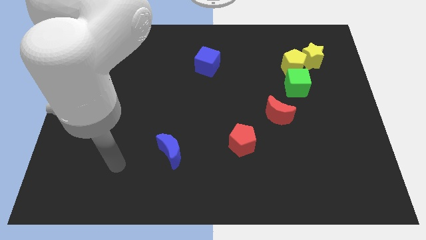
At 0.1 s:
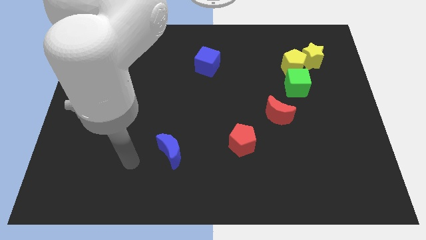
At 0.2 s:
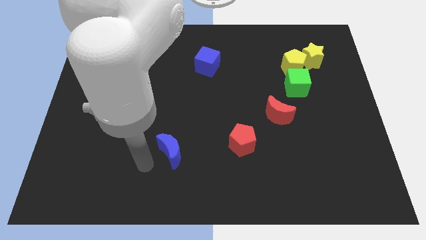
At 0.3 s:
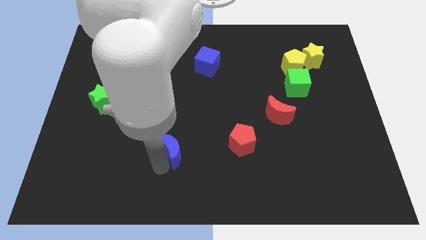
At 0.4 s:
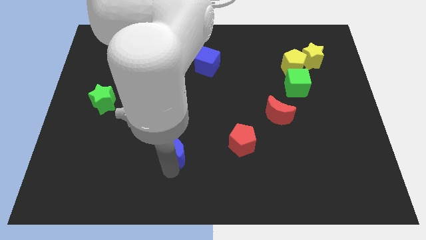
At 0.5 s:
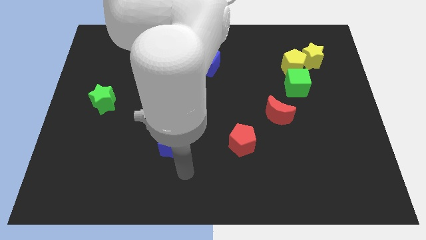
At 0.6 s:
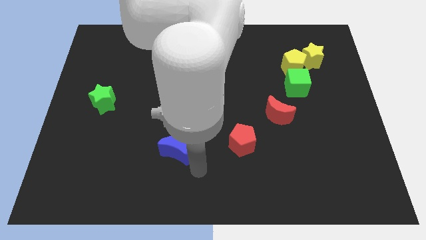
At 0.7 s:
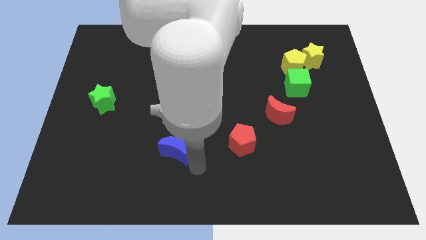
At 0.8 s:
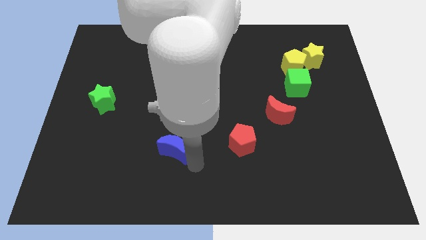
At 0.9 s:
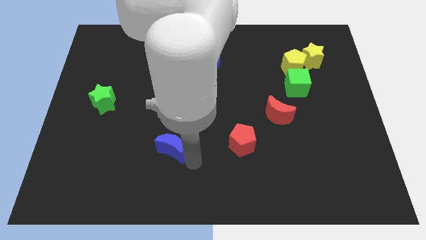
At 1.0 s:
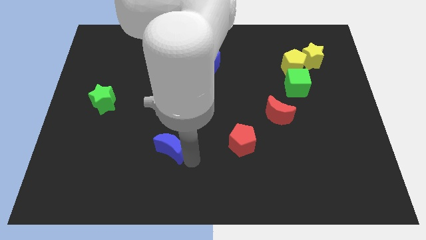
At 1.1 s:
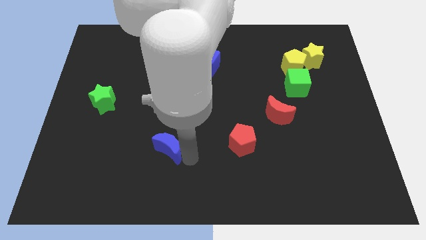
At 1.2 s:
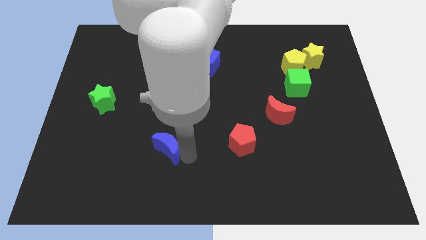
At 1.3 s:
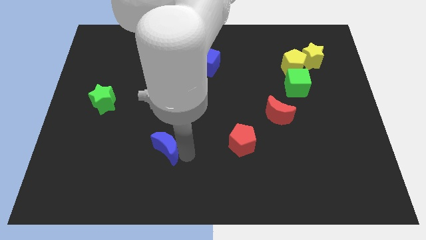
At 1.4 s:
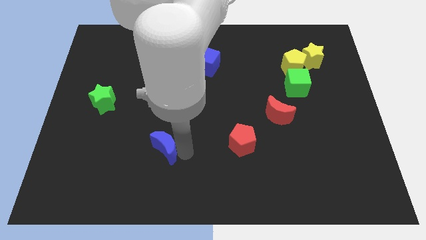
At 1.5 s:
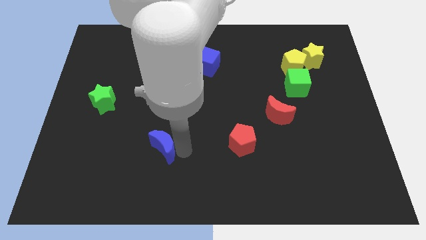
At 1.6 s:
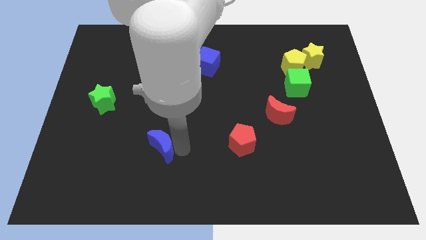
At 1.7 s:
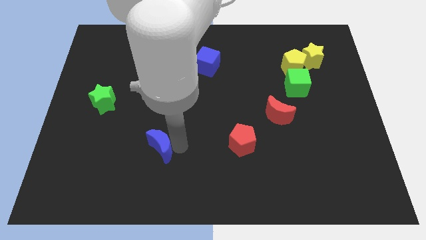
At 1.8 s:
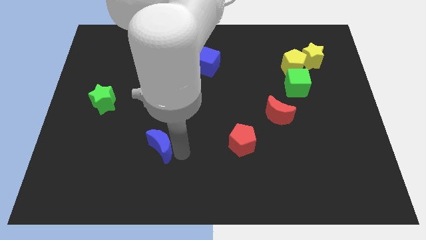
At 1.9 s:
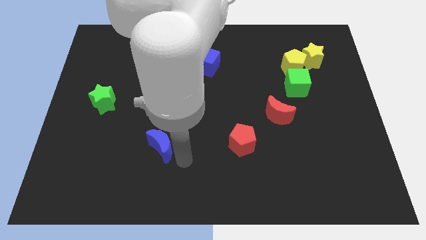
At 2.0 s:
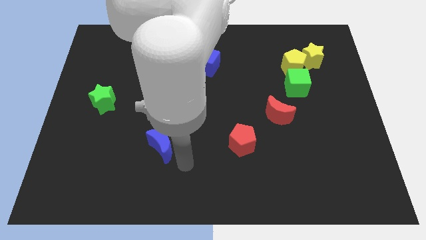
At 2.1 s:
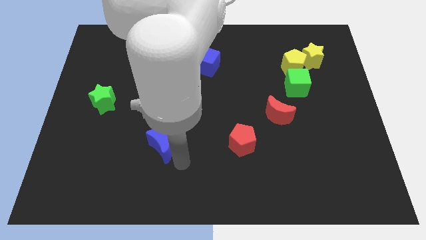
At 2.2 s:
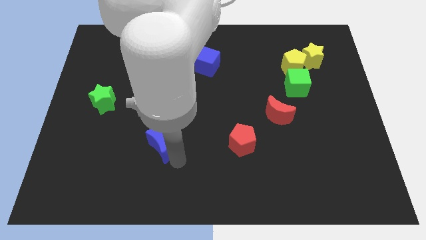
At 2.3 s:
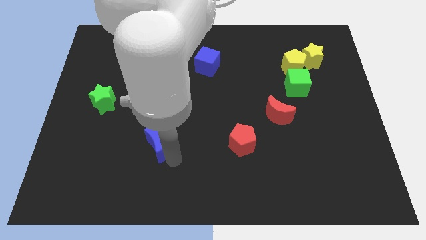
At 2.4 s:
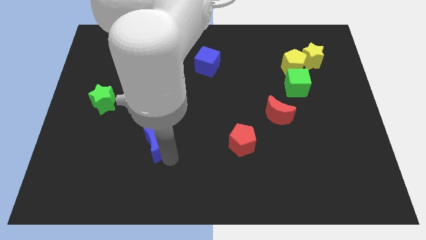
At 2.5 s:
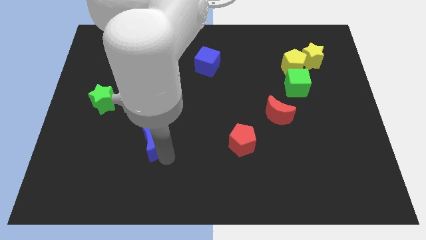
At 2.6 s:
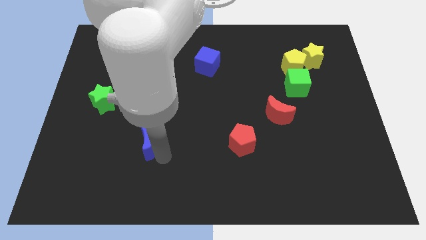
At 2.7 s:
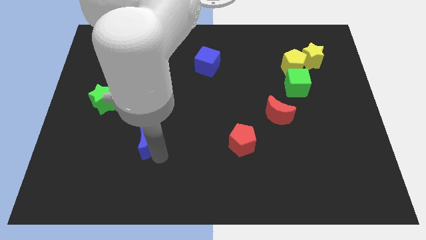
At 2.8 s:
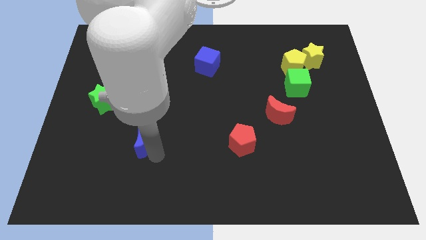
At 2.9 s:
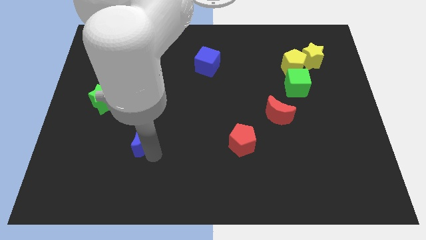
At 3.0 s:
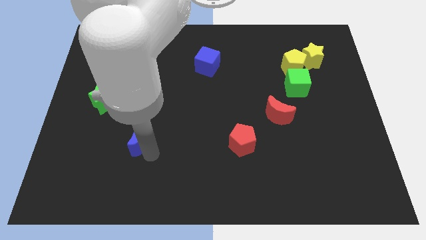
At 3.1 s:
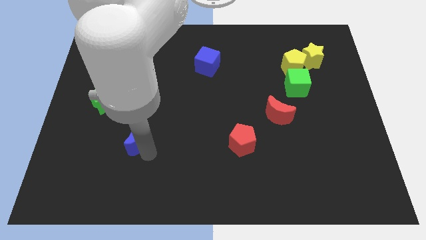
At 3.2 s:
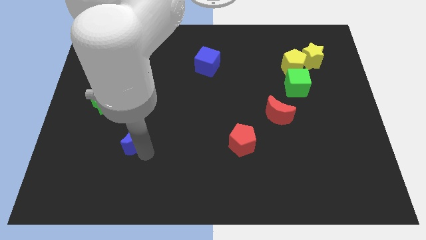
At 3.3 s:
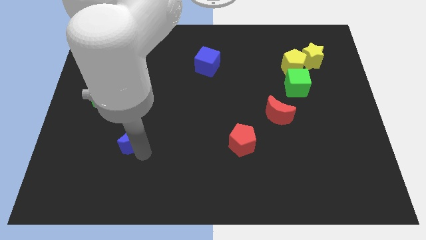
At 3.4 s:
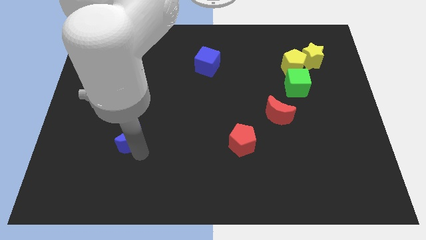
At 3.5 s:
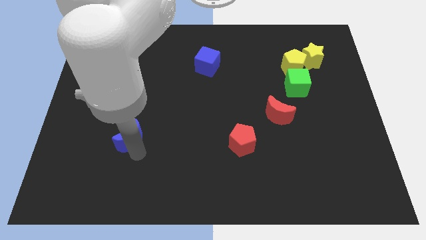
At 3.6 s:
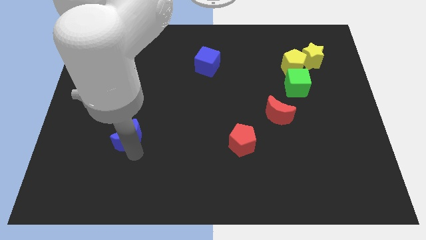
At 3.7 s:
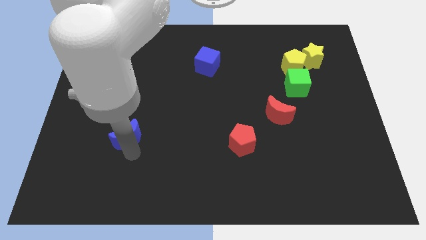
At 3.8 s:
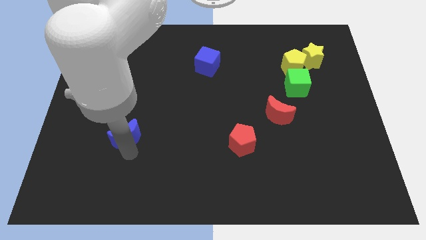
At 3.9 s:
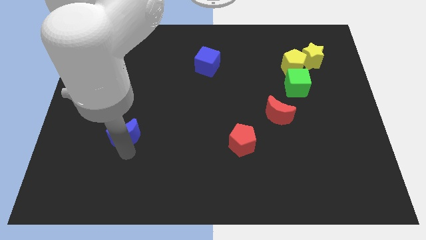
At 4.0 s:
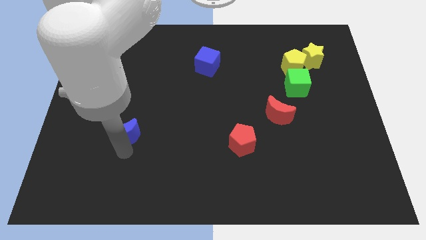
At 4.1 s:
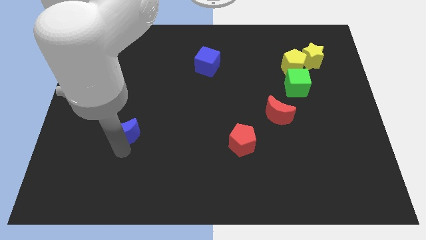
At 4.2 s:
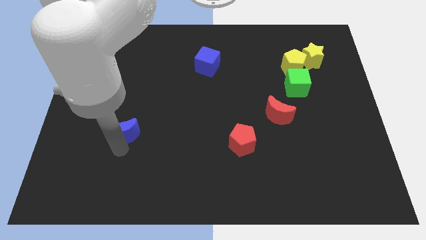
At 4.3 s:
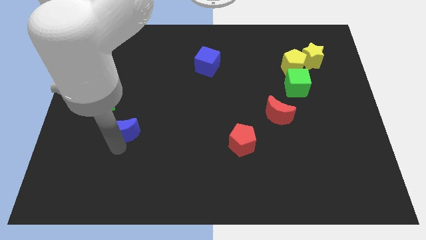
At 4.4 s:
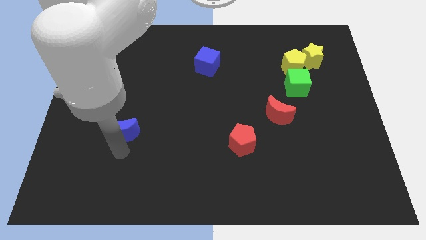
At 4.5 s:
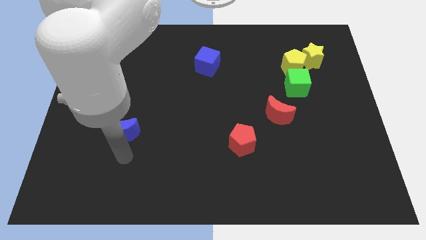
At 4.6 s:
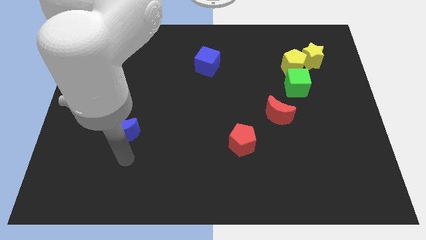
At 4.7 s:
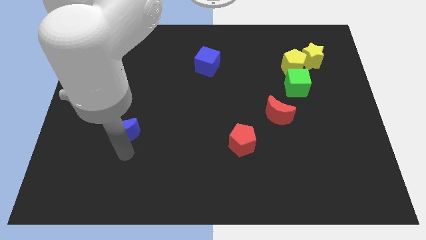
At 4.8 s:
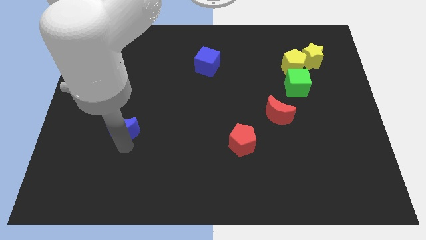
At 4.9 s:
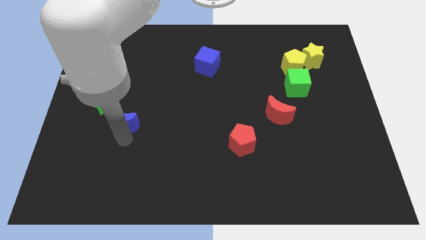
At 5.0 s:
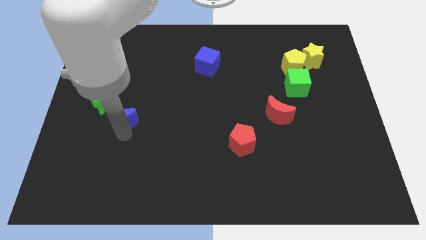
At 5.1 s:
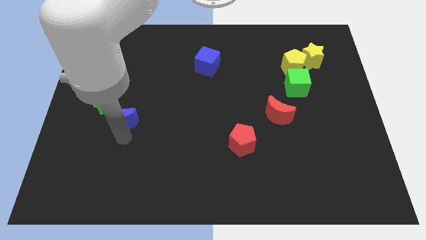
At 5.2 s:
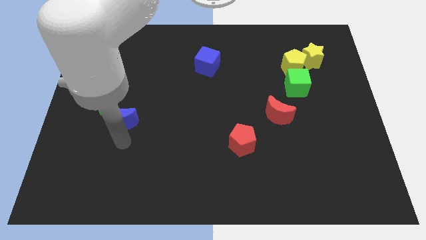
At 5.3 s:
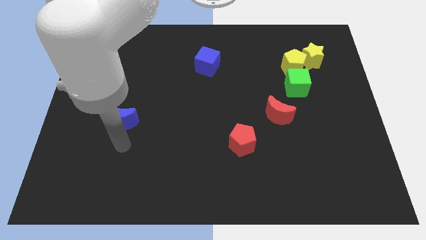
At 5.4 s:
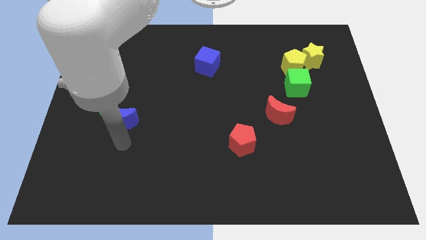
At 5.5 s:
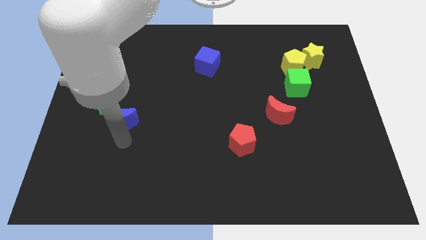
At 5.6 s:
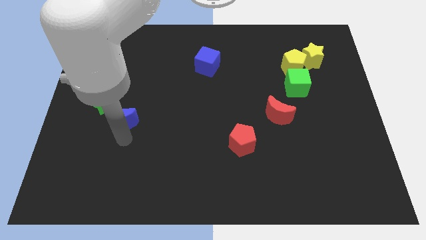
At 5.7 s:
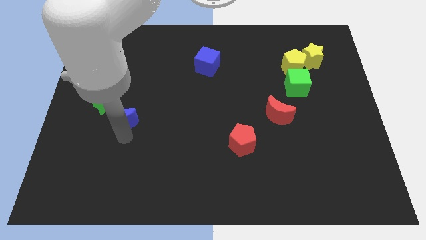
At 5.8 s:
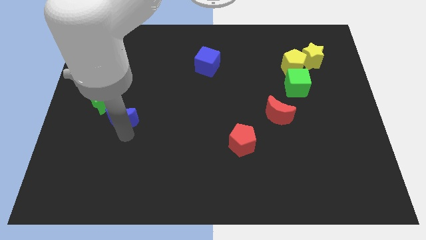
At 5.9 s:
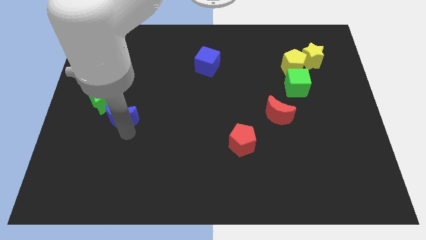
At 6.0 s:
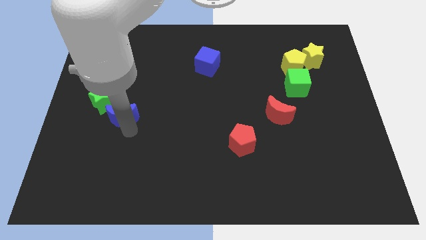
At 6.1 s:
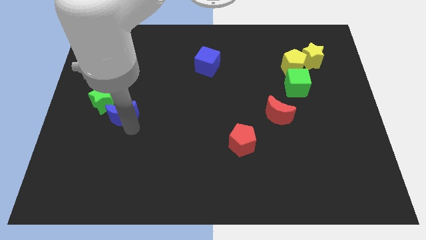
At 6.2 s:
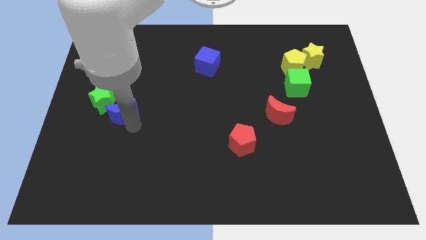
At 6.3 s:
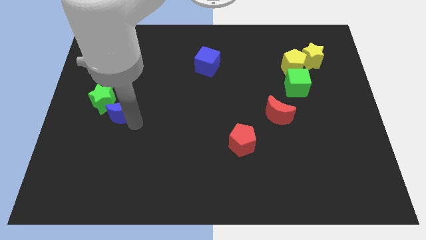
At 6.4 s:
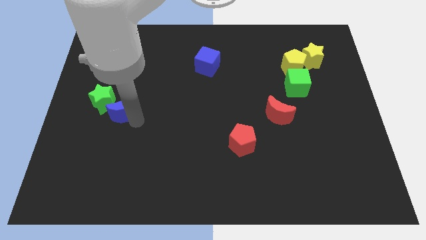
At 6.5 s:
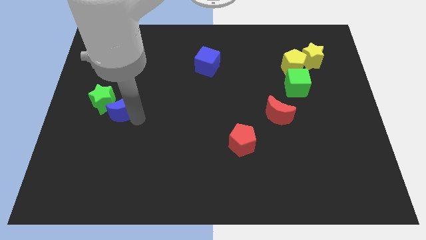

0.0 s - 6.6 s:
put the blue moon to the green star

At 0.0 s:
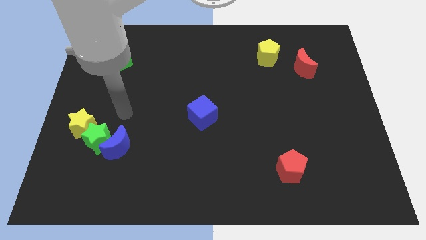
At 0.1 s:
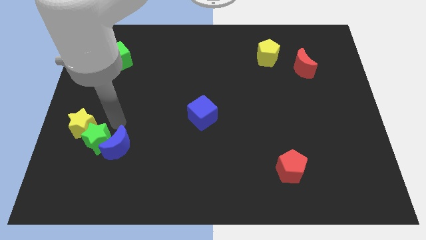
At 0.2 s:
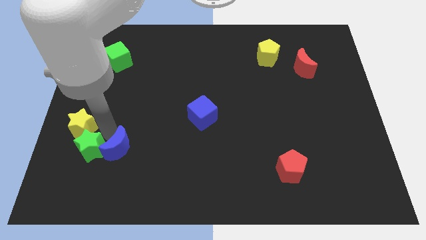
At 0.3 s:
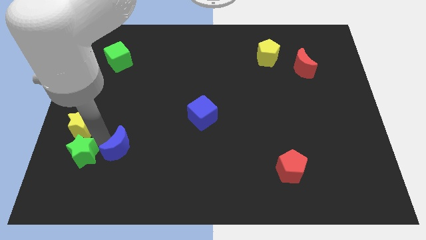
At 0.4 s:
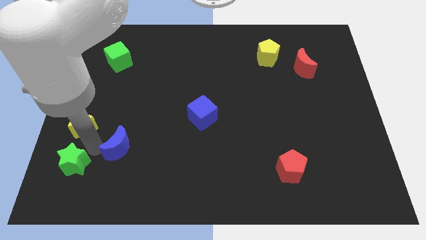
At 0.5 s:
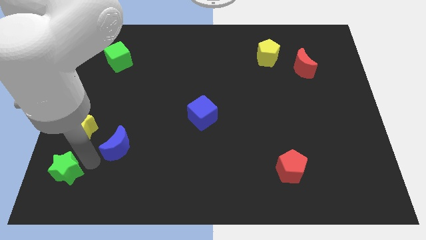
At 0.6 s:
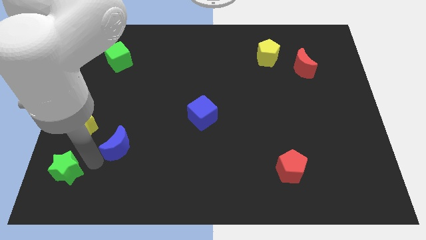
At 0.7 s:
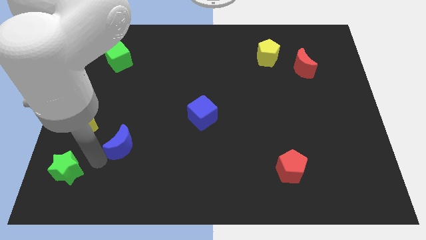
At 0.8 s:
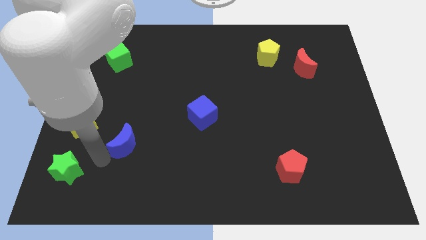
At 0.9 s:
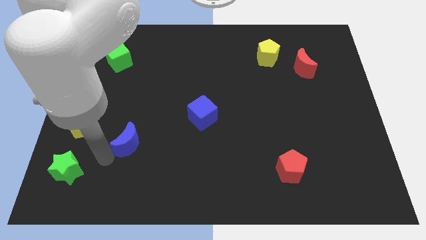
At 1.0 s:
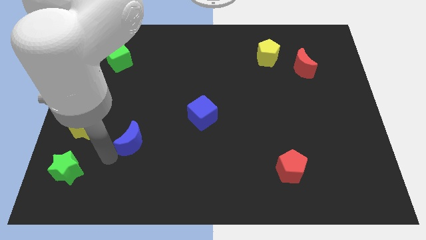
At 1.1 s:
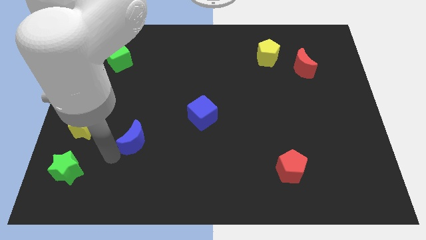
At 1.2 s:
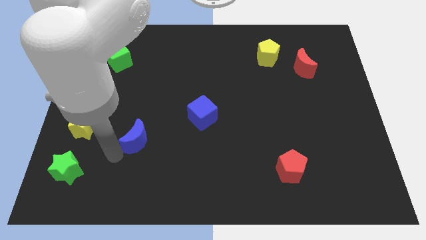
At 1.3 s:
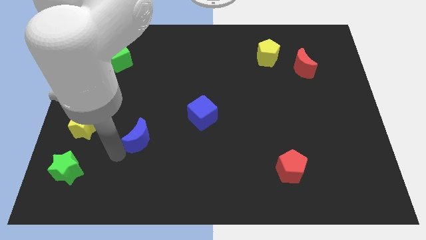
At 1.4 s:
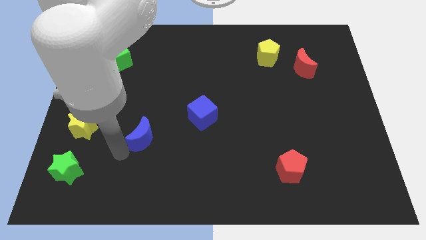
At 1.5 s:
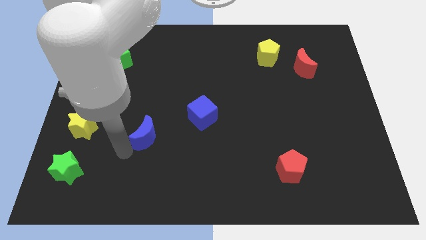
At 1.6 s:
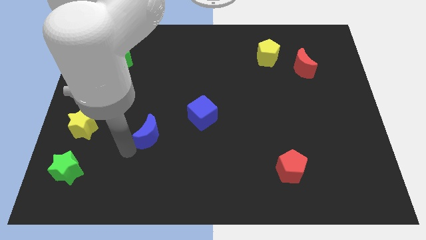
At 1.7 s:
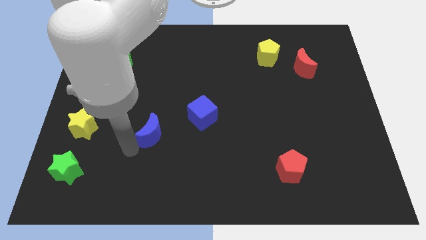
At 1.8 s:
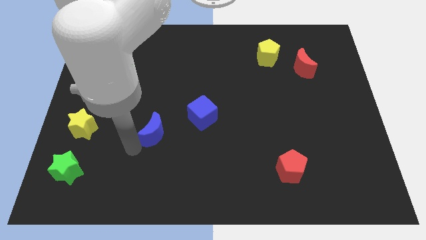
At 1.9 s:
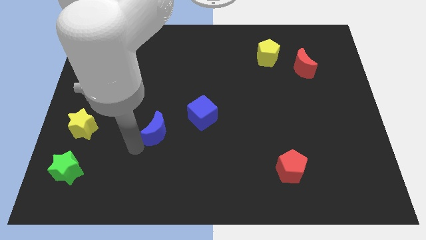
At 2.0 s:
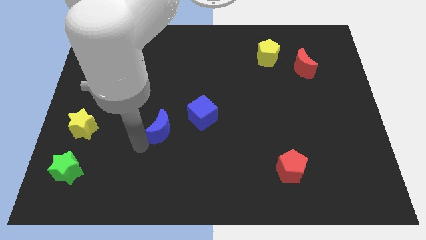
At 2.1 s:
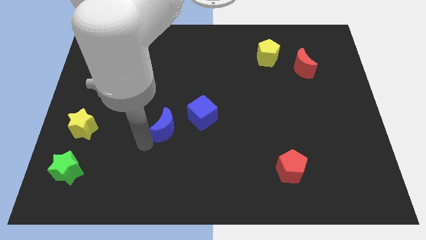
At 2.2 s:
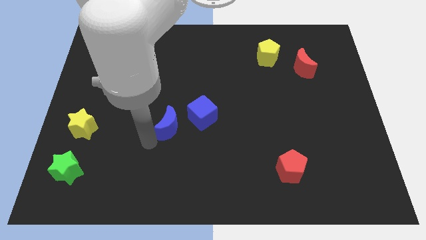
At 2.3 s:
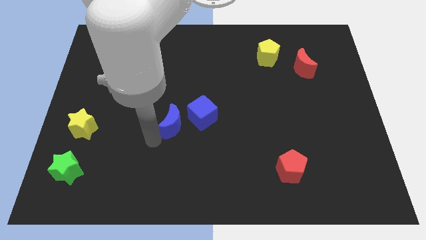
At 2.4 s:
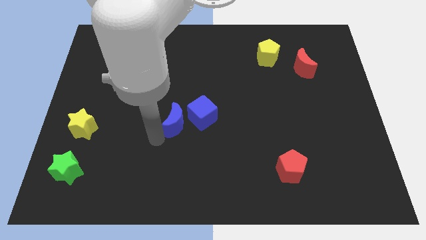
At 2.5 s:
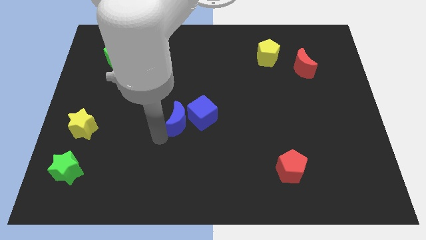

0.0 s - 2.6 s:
push the blue moon to the blue cube
